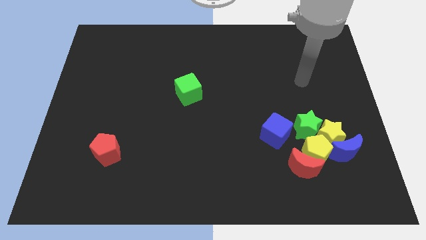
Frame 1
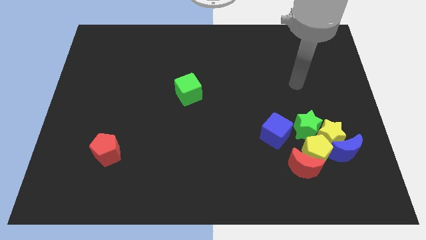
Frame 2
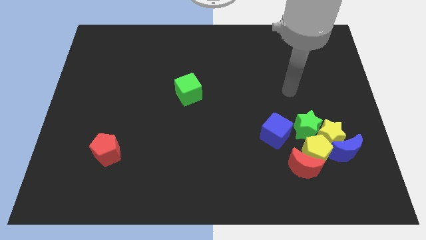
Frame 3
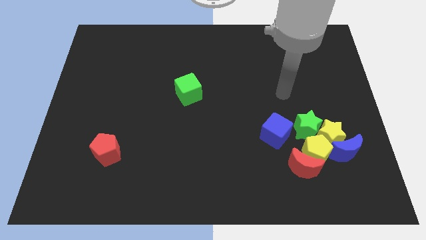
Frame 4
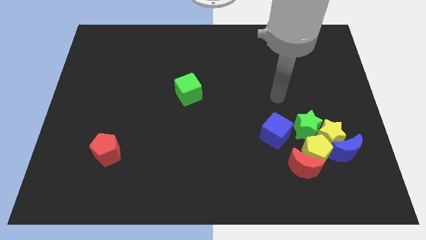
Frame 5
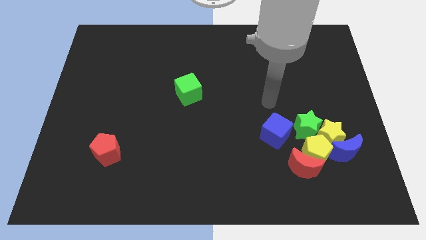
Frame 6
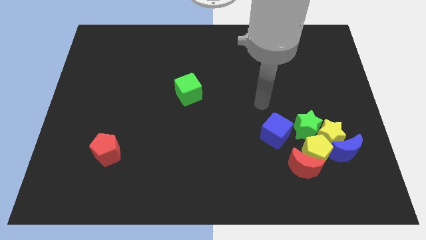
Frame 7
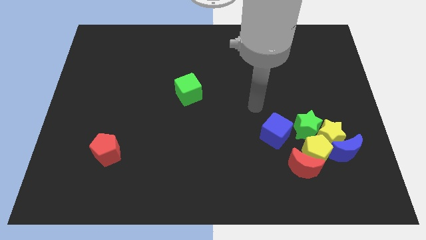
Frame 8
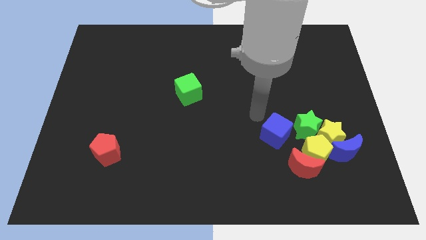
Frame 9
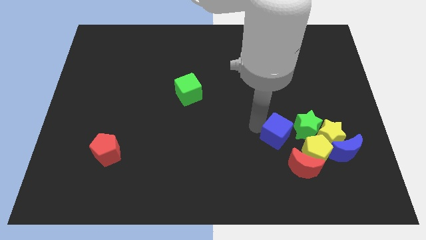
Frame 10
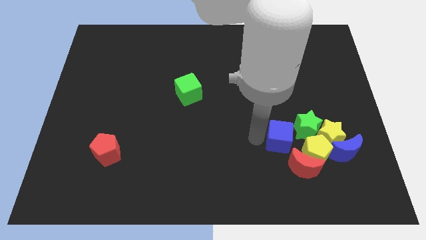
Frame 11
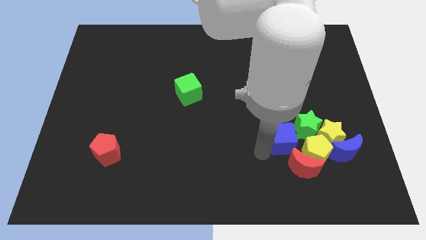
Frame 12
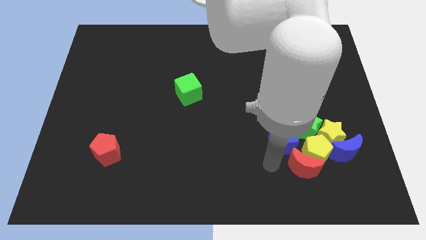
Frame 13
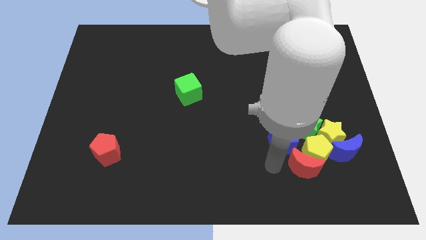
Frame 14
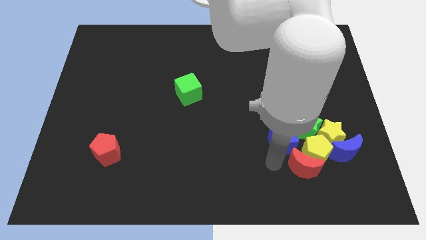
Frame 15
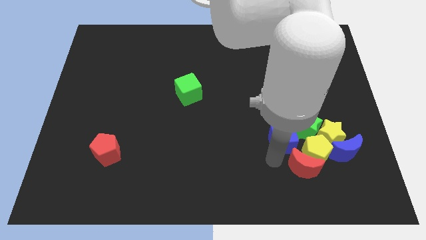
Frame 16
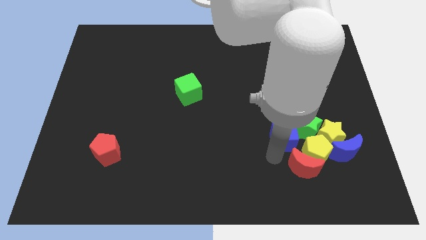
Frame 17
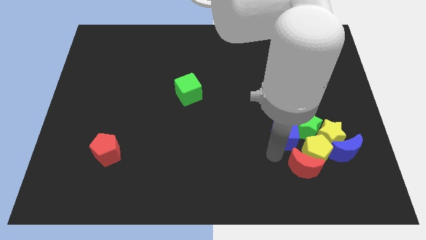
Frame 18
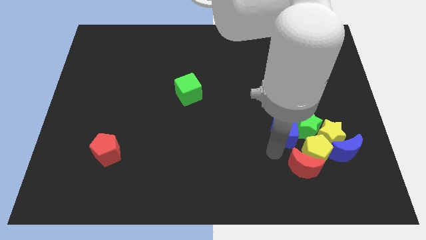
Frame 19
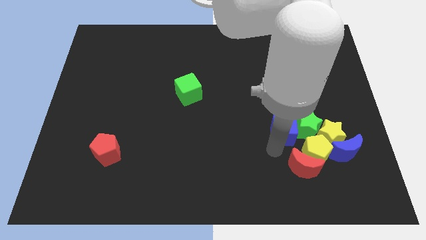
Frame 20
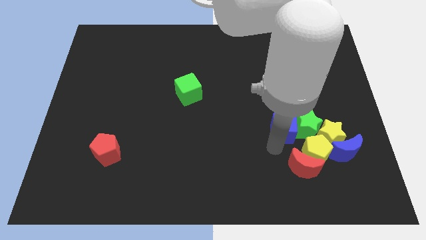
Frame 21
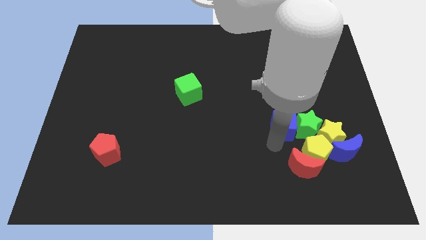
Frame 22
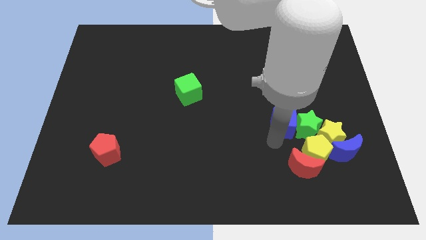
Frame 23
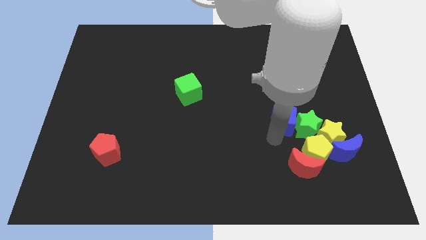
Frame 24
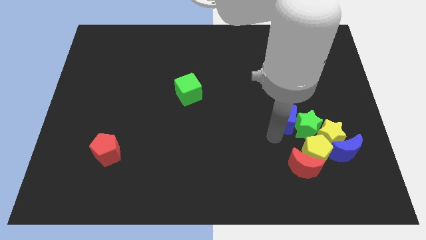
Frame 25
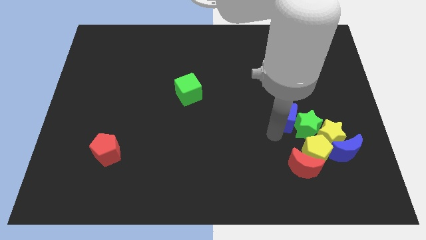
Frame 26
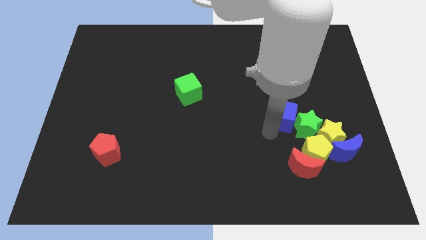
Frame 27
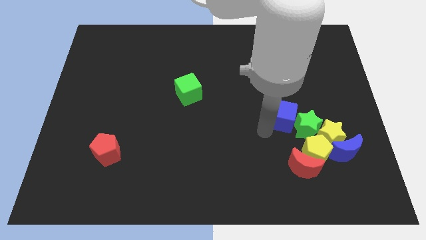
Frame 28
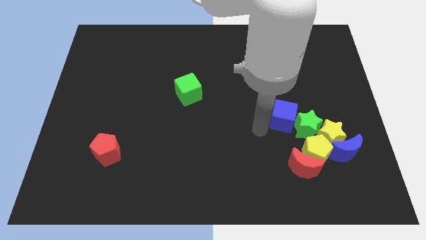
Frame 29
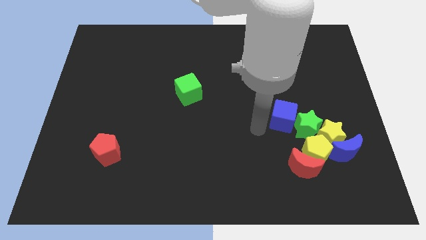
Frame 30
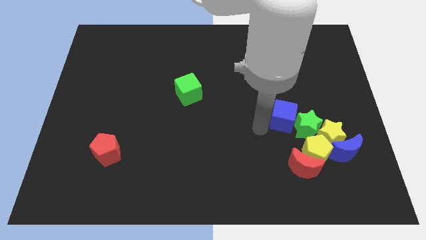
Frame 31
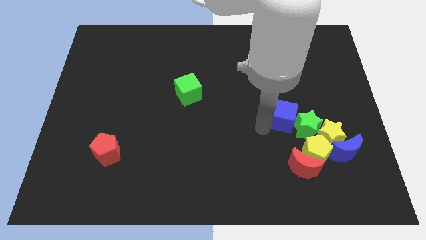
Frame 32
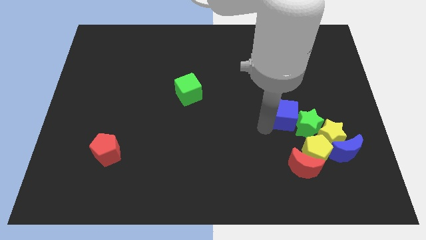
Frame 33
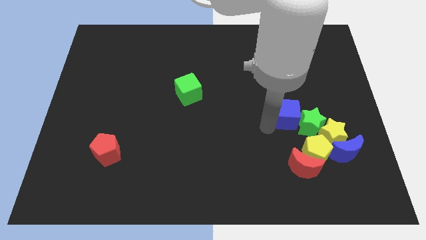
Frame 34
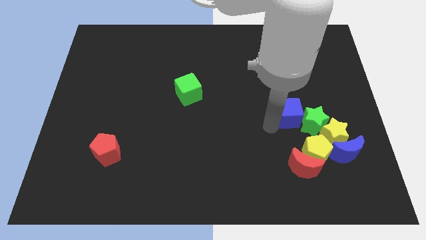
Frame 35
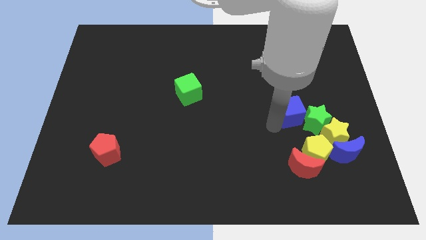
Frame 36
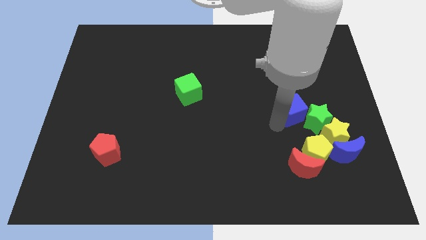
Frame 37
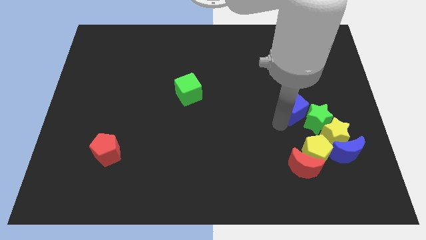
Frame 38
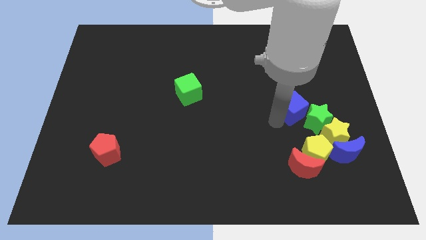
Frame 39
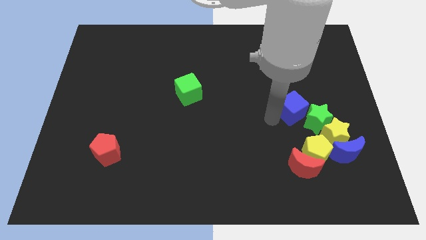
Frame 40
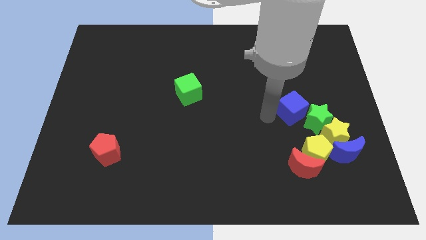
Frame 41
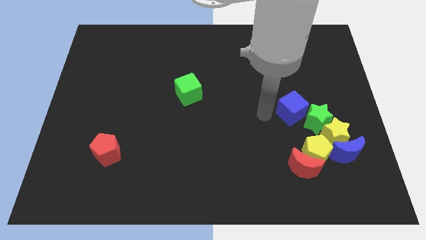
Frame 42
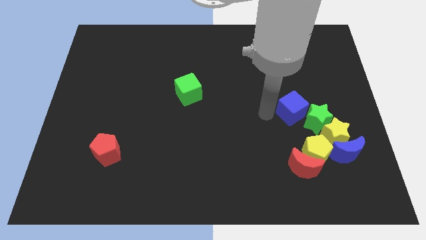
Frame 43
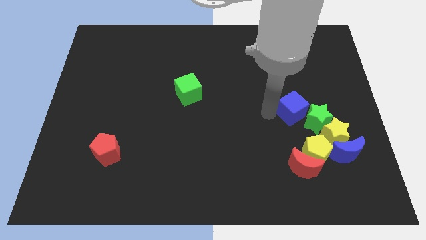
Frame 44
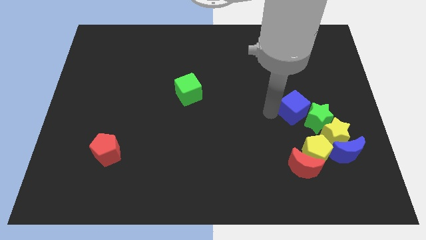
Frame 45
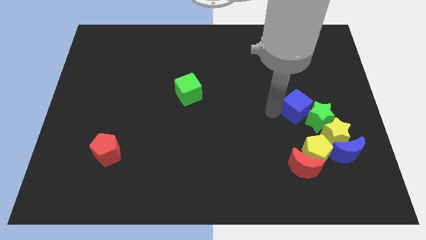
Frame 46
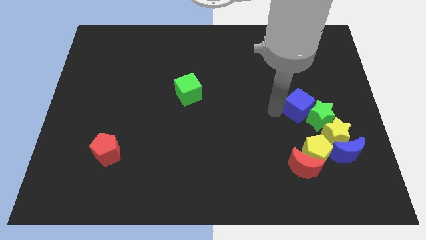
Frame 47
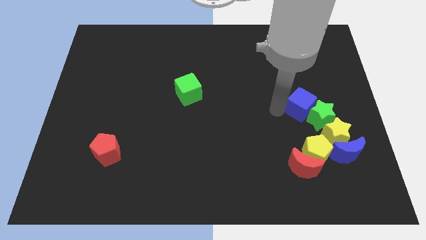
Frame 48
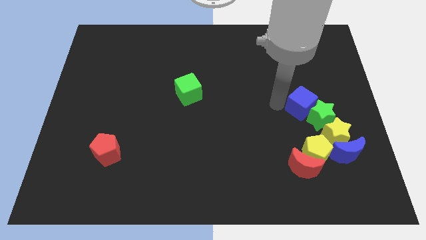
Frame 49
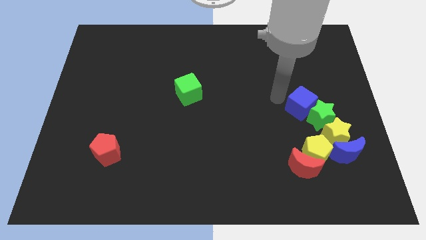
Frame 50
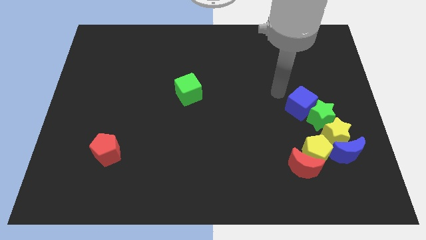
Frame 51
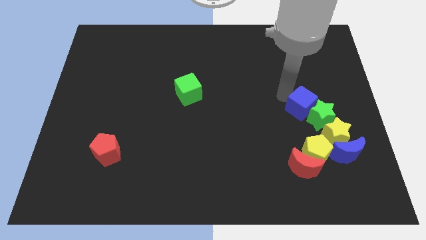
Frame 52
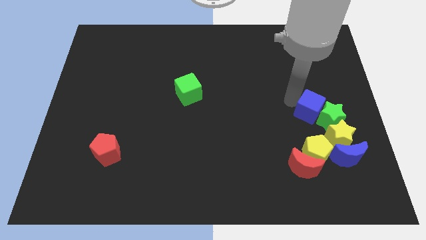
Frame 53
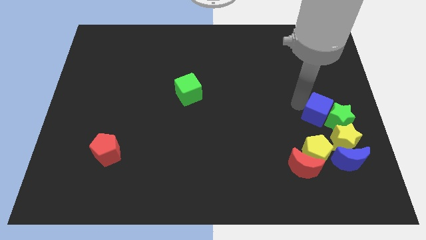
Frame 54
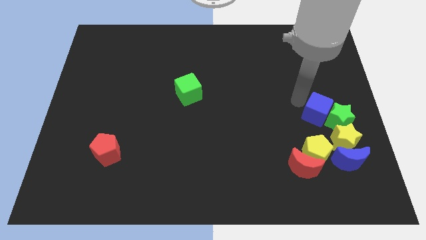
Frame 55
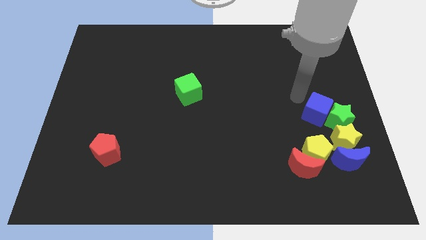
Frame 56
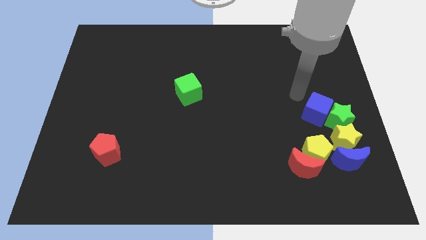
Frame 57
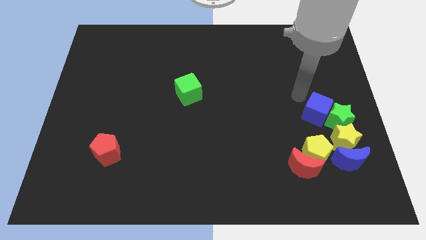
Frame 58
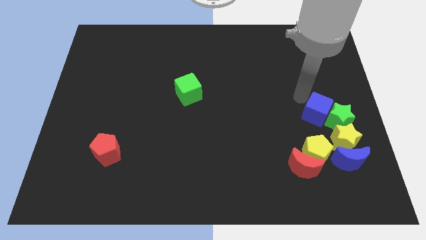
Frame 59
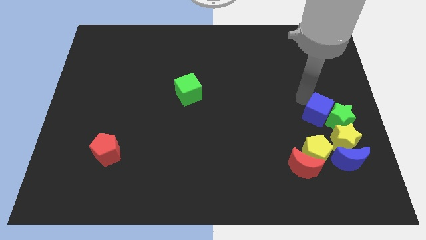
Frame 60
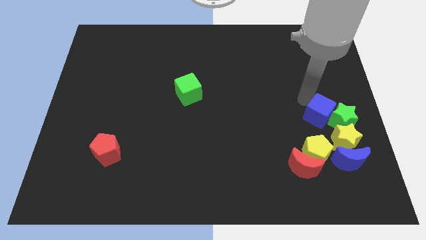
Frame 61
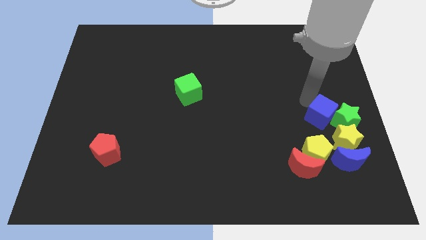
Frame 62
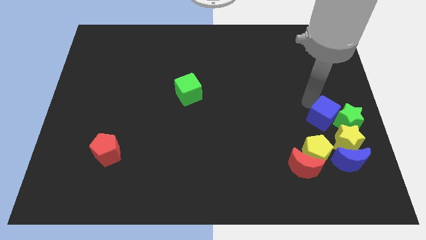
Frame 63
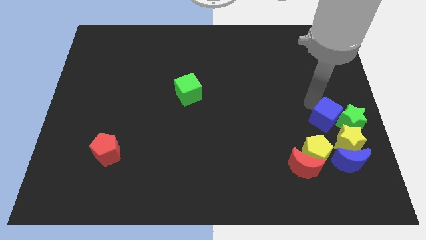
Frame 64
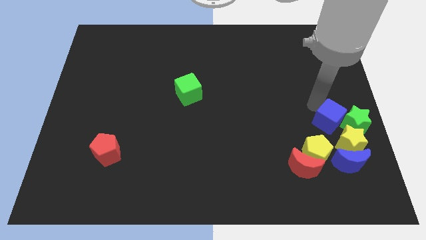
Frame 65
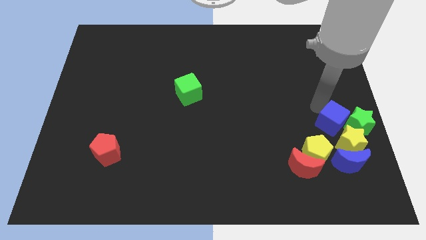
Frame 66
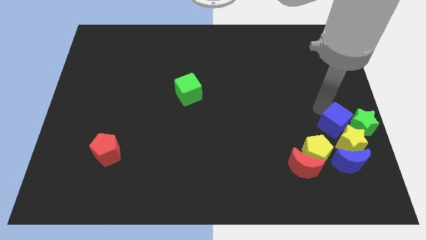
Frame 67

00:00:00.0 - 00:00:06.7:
move the blue cube towards the yellow star

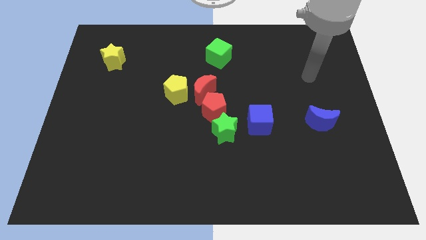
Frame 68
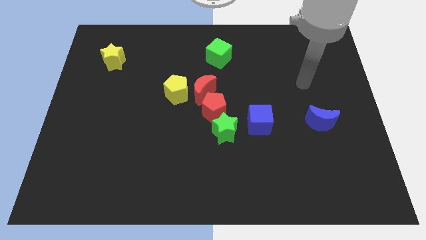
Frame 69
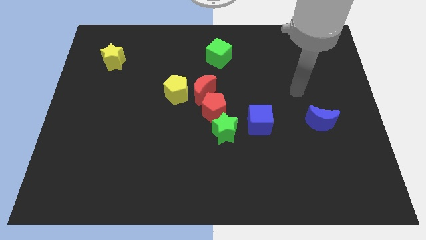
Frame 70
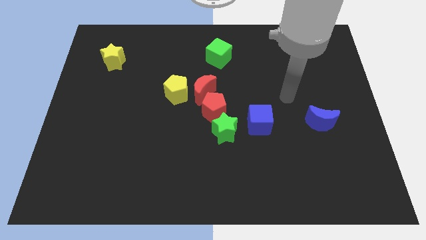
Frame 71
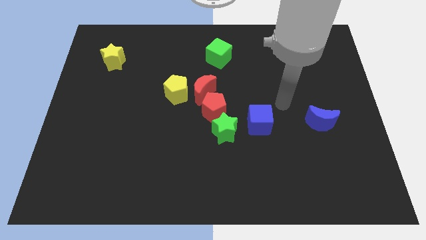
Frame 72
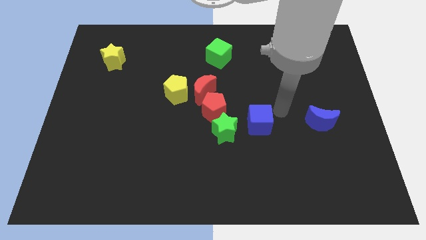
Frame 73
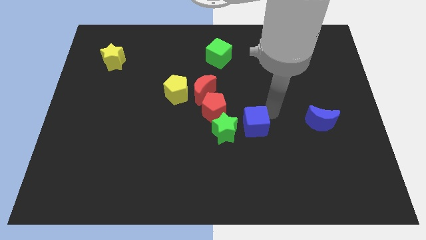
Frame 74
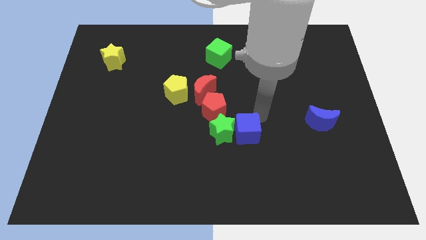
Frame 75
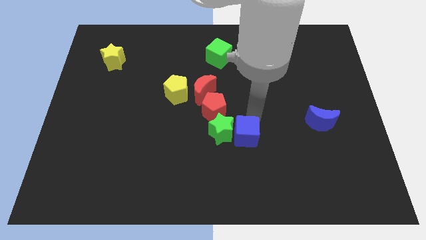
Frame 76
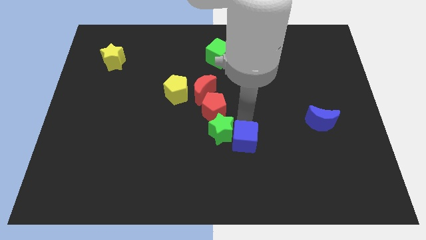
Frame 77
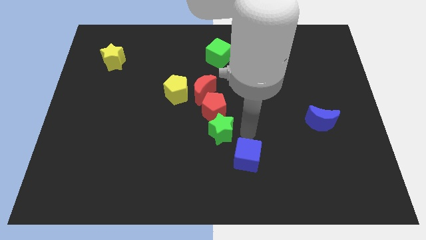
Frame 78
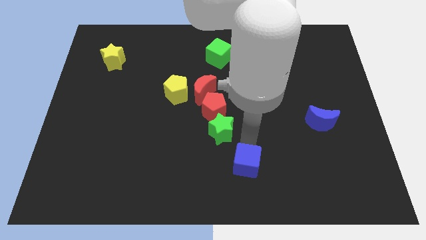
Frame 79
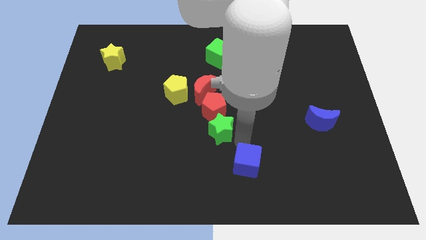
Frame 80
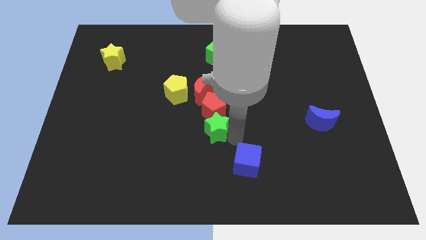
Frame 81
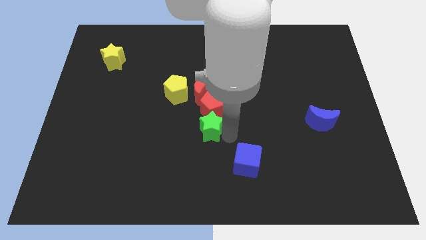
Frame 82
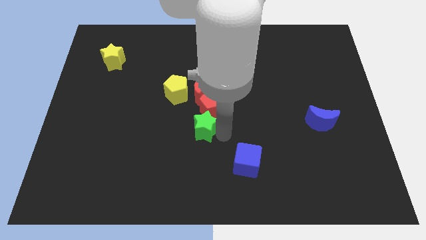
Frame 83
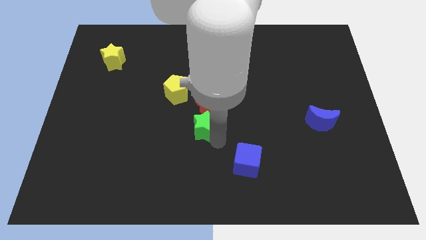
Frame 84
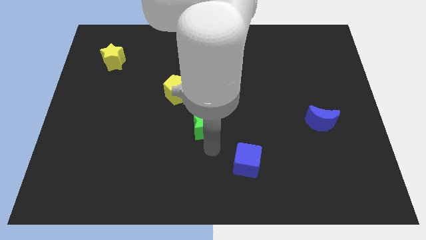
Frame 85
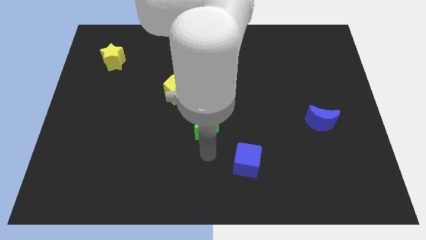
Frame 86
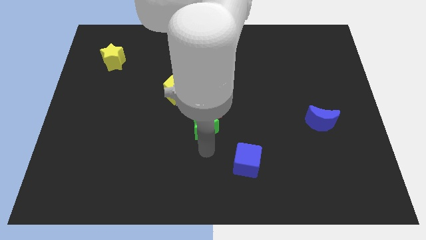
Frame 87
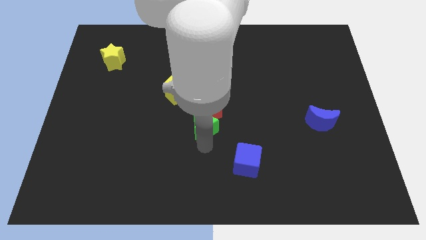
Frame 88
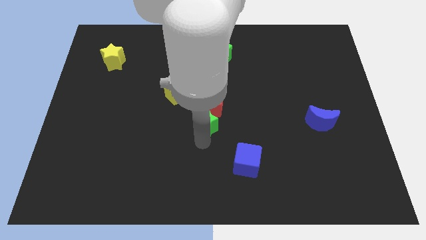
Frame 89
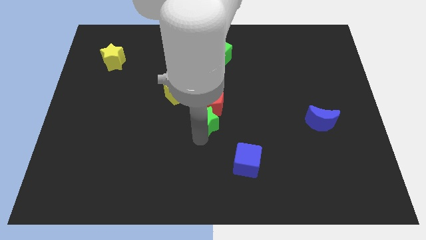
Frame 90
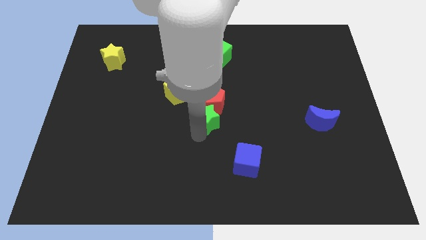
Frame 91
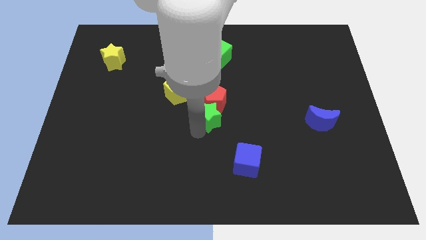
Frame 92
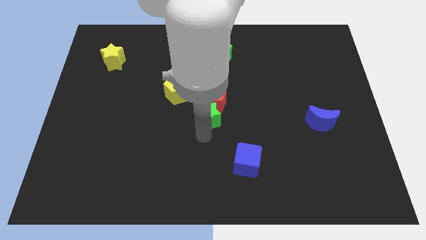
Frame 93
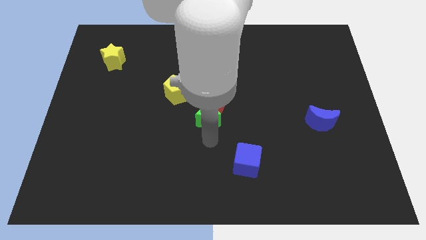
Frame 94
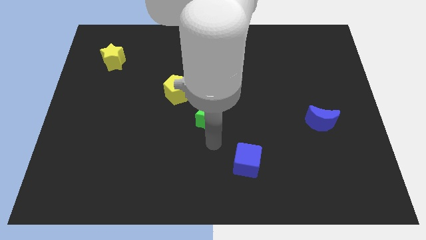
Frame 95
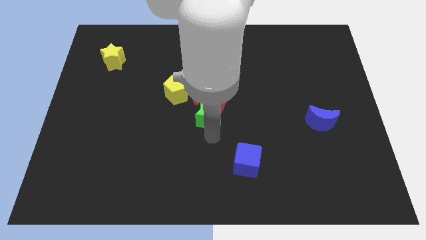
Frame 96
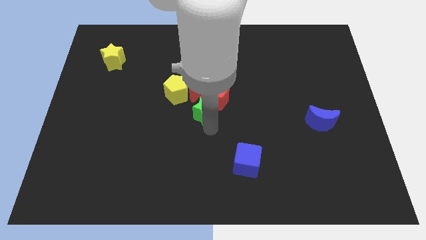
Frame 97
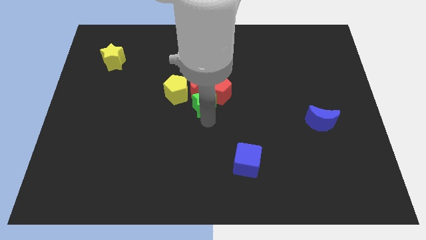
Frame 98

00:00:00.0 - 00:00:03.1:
move the green star next to the red moon
